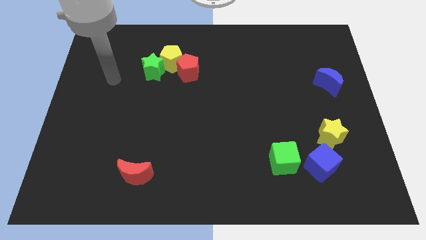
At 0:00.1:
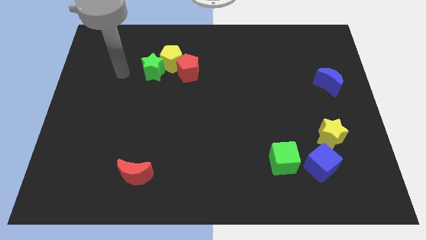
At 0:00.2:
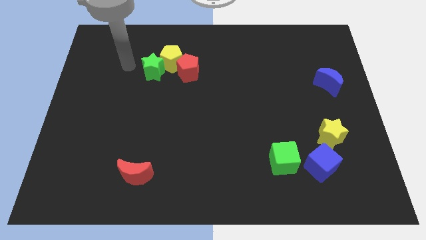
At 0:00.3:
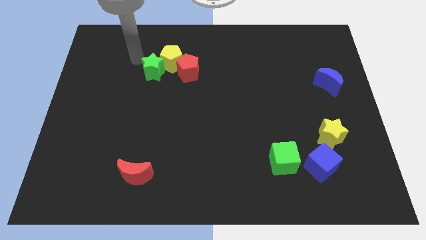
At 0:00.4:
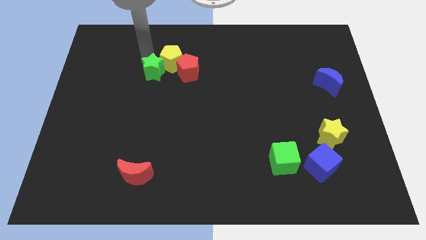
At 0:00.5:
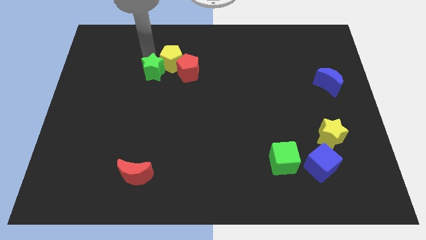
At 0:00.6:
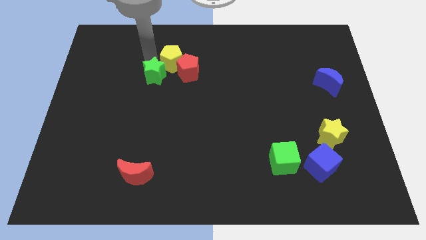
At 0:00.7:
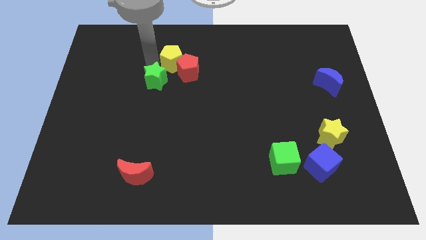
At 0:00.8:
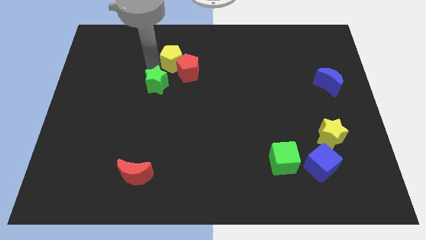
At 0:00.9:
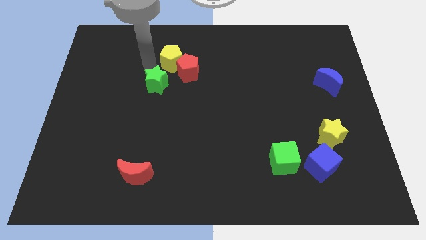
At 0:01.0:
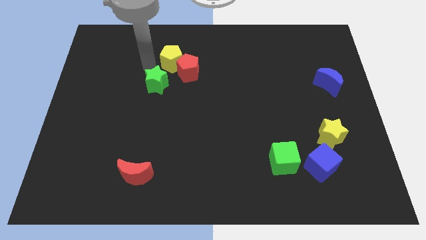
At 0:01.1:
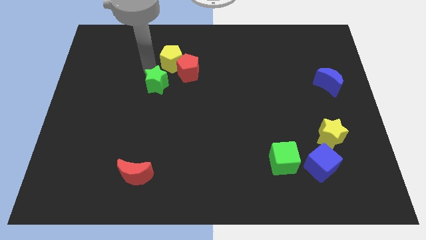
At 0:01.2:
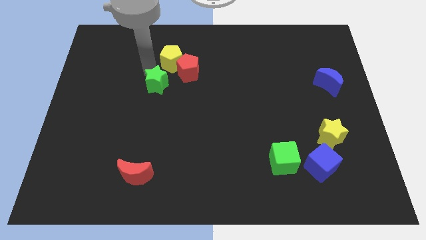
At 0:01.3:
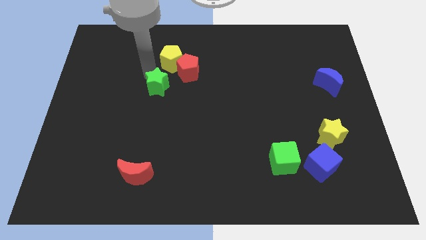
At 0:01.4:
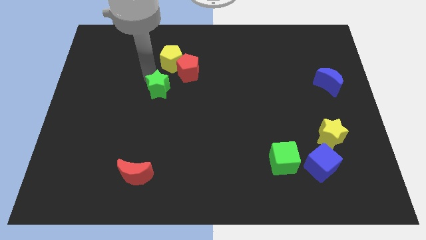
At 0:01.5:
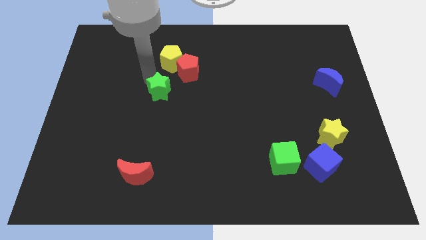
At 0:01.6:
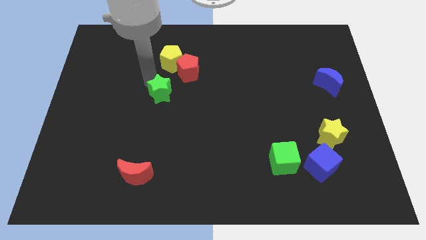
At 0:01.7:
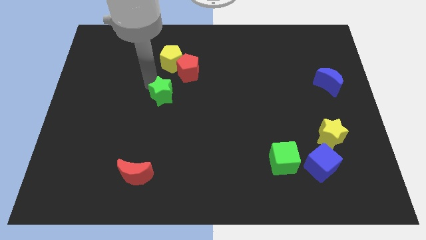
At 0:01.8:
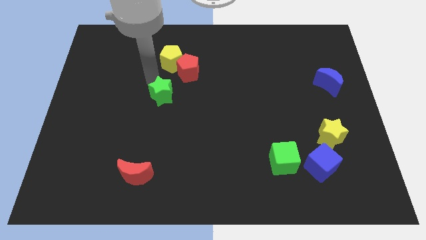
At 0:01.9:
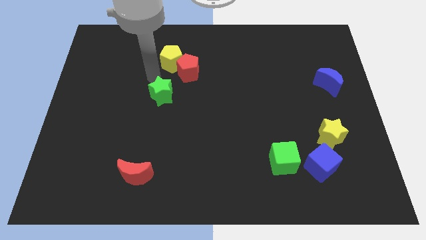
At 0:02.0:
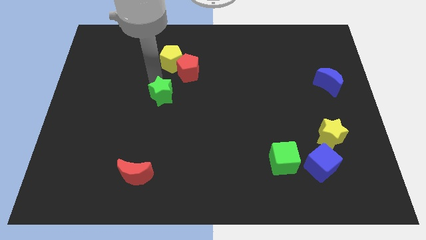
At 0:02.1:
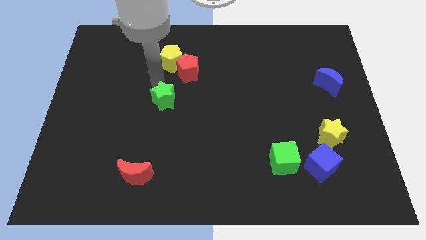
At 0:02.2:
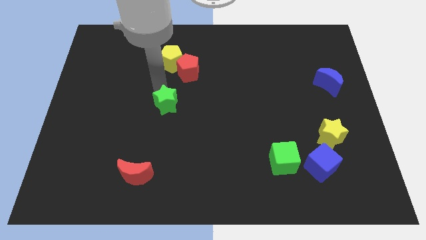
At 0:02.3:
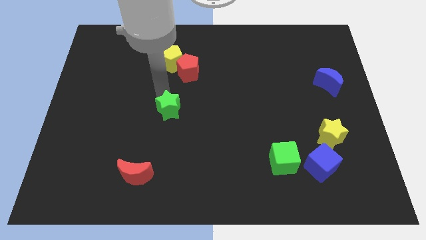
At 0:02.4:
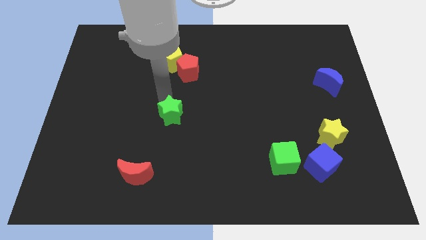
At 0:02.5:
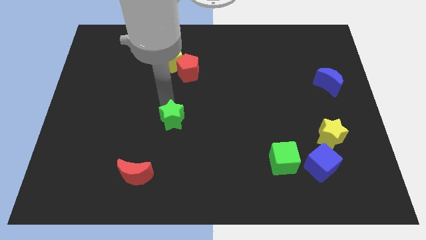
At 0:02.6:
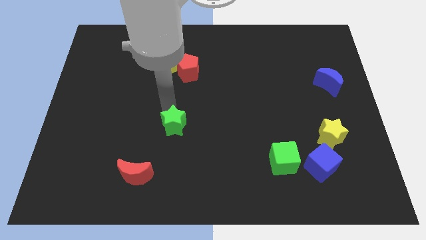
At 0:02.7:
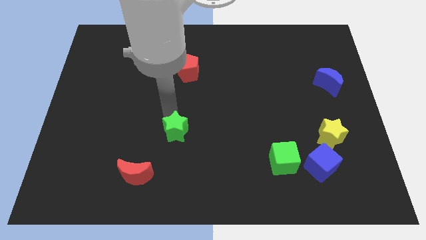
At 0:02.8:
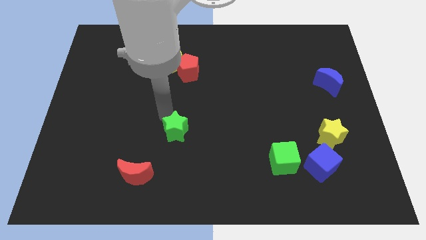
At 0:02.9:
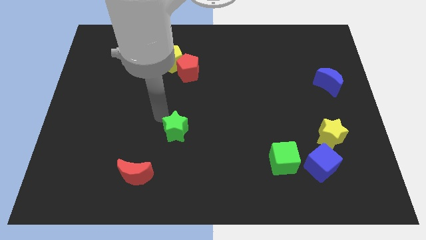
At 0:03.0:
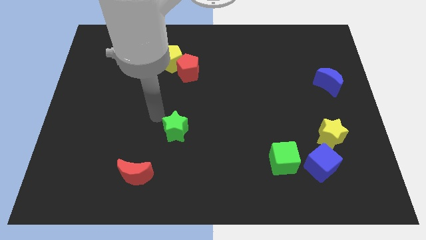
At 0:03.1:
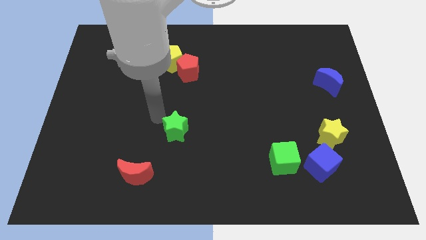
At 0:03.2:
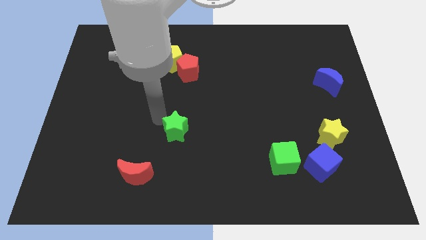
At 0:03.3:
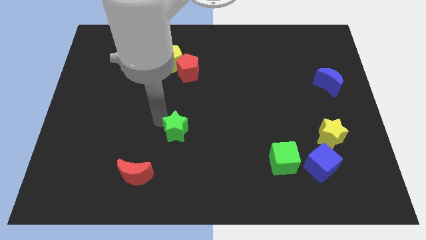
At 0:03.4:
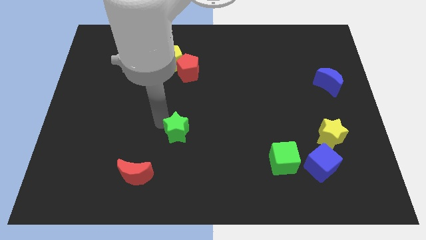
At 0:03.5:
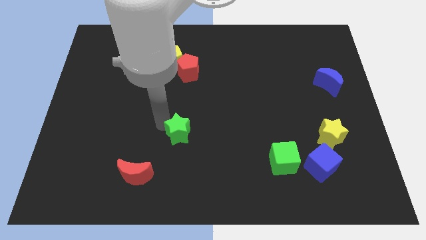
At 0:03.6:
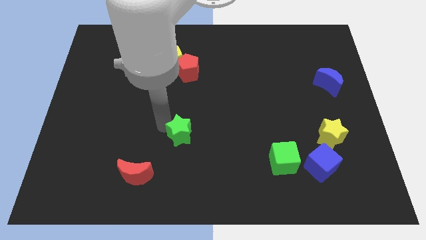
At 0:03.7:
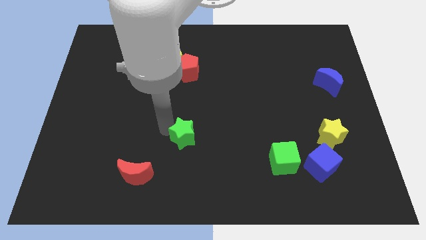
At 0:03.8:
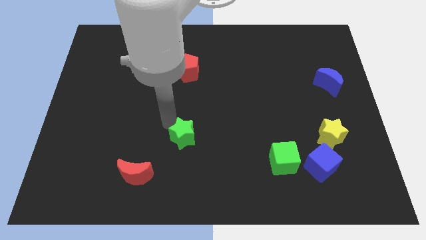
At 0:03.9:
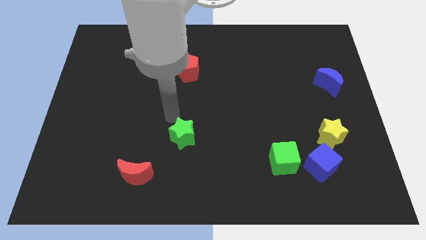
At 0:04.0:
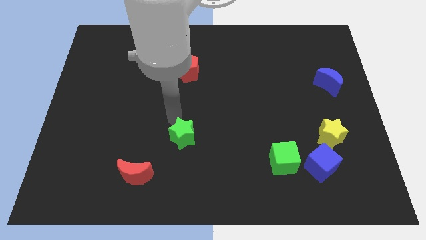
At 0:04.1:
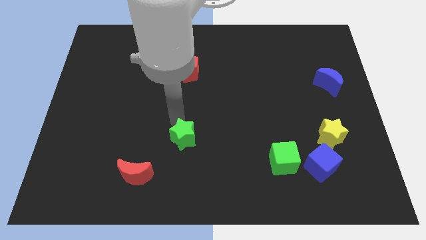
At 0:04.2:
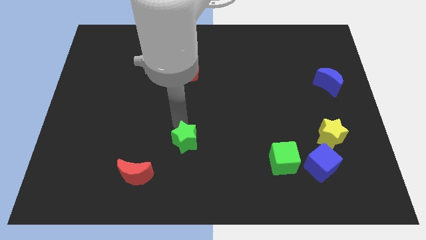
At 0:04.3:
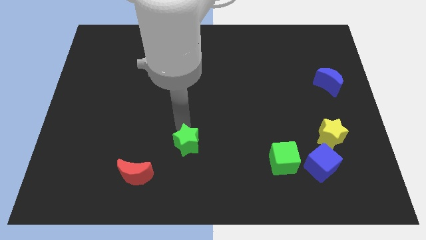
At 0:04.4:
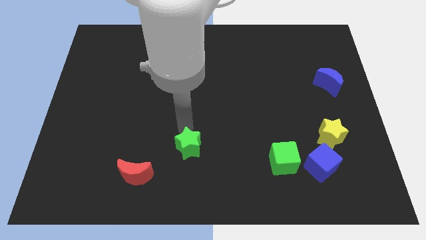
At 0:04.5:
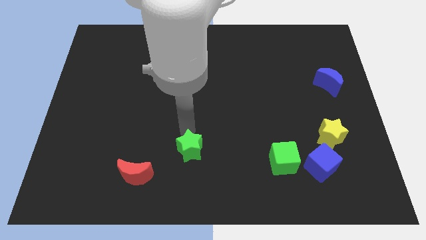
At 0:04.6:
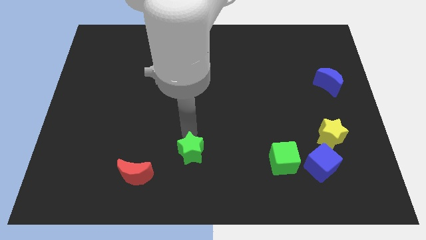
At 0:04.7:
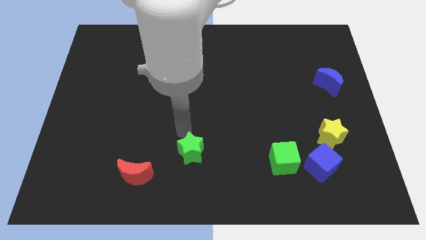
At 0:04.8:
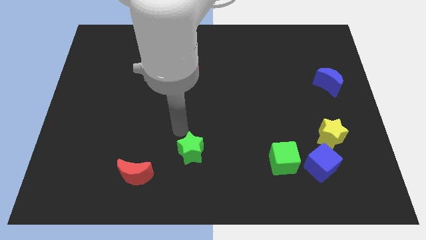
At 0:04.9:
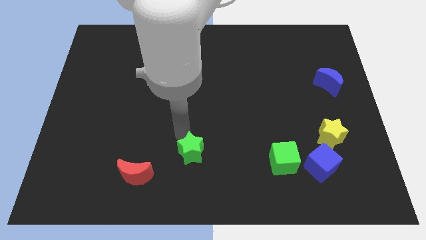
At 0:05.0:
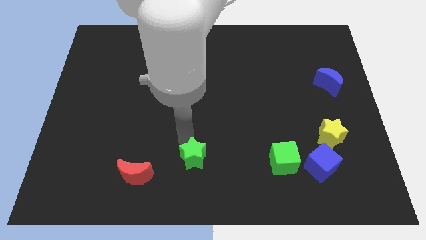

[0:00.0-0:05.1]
push the green star to the bottom side

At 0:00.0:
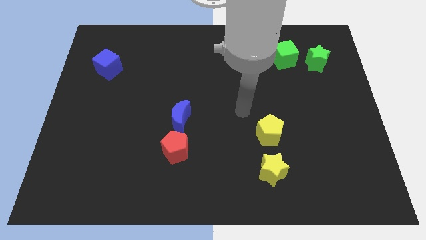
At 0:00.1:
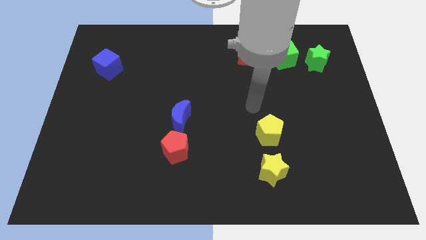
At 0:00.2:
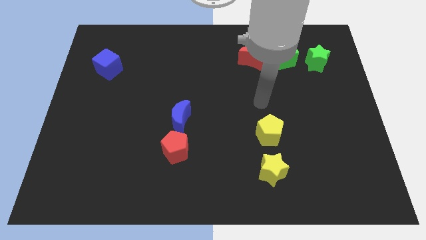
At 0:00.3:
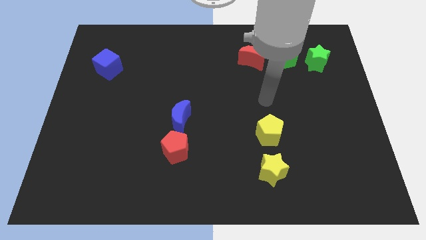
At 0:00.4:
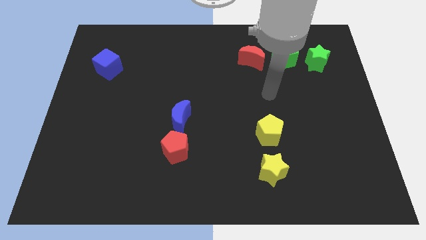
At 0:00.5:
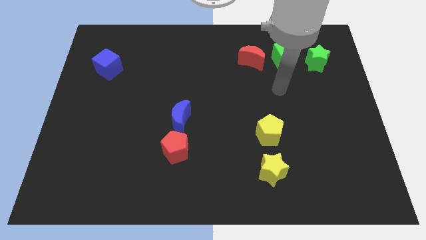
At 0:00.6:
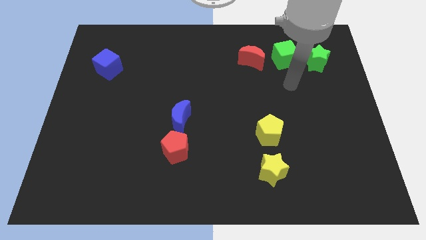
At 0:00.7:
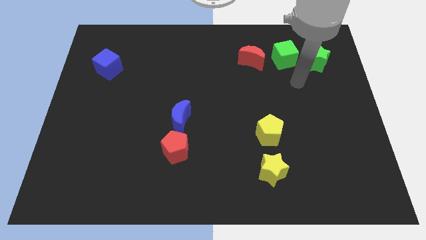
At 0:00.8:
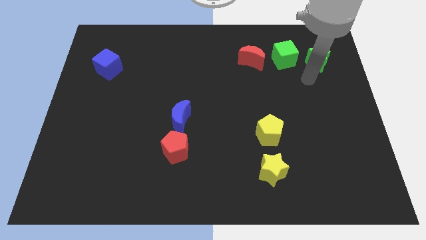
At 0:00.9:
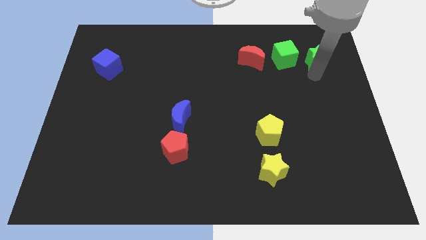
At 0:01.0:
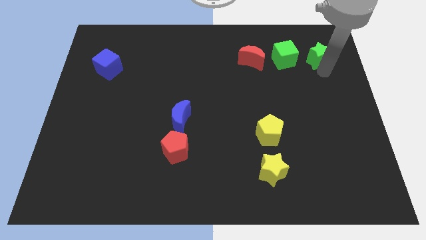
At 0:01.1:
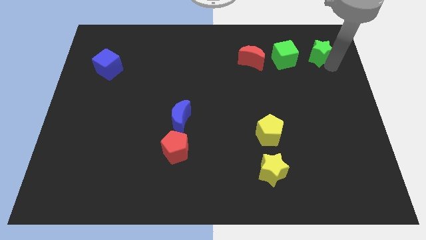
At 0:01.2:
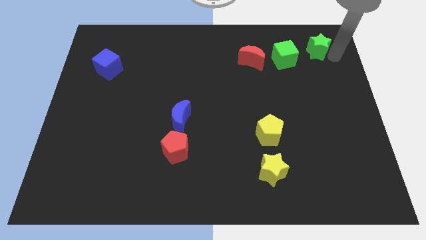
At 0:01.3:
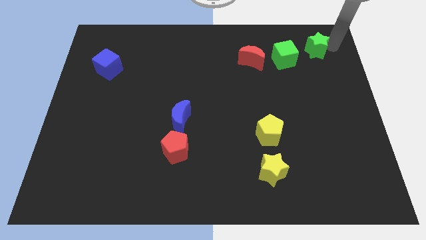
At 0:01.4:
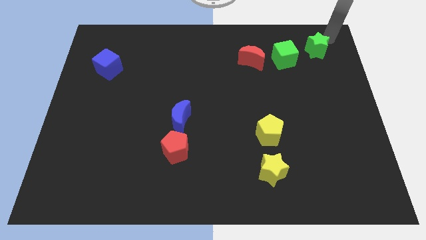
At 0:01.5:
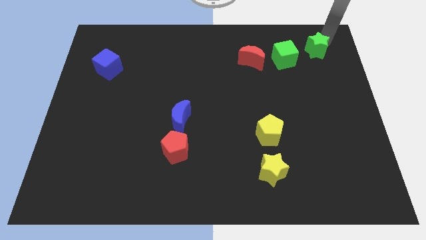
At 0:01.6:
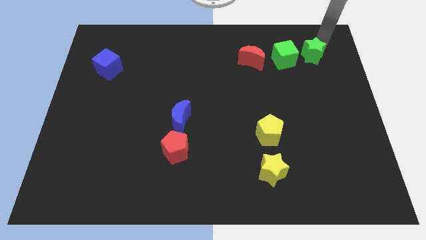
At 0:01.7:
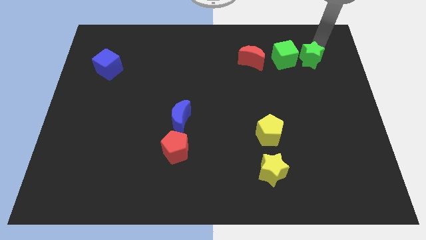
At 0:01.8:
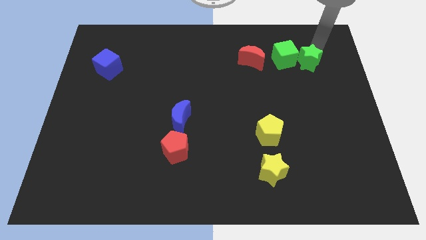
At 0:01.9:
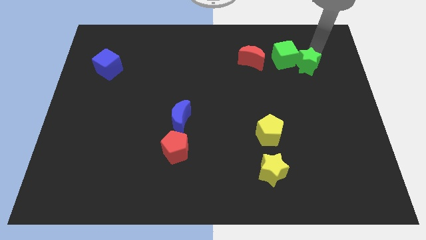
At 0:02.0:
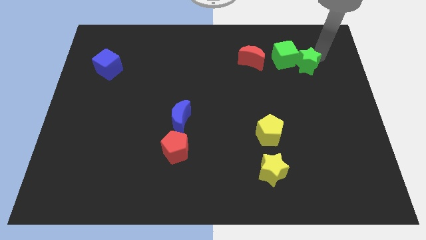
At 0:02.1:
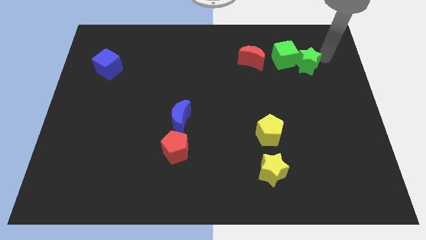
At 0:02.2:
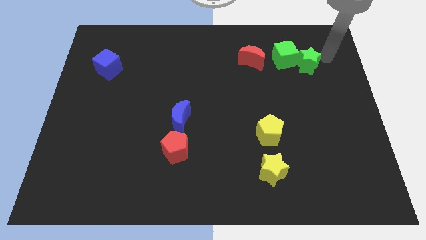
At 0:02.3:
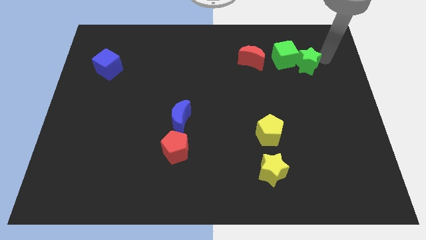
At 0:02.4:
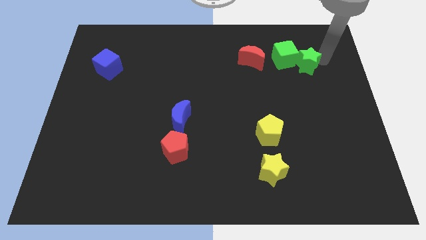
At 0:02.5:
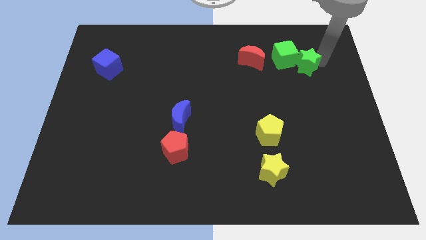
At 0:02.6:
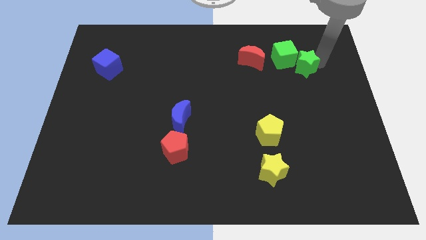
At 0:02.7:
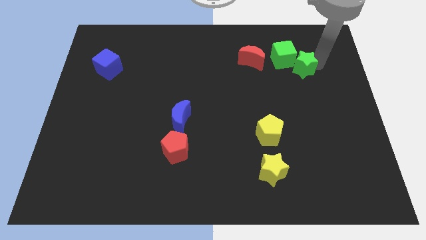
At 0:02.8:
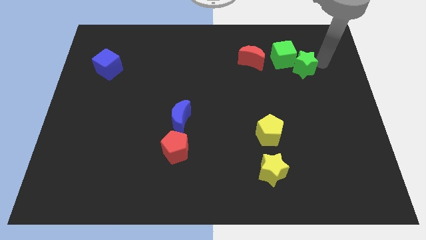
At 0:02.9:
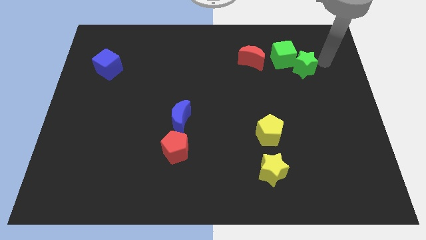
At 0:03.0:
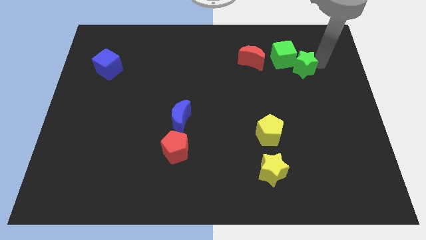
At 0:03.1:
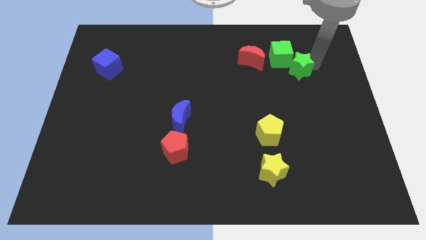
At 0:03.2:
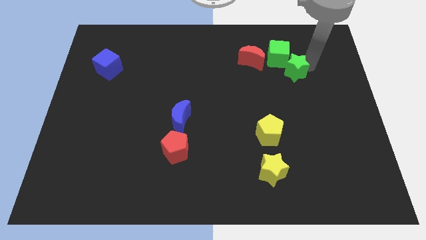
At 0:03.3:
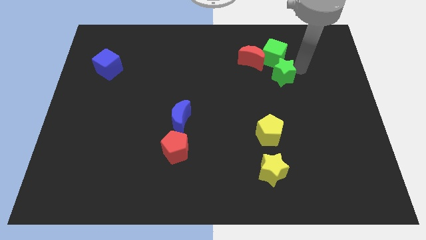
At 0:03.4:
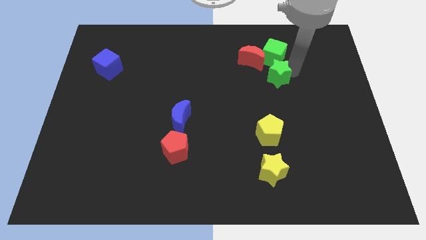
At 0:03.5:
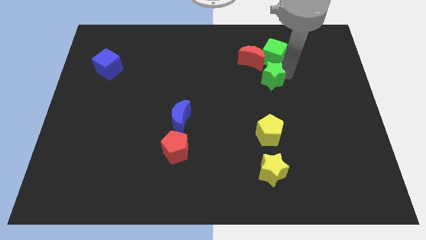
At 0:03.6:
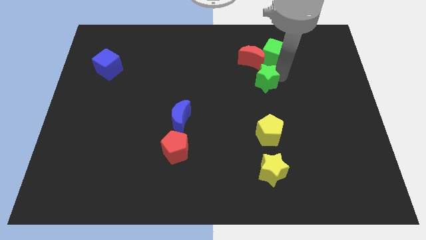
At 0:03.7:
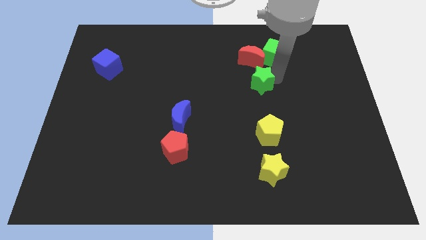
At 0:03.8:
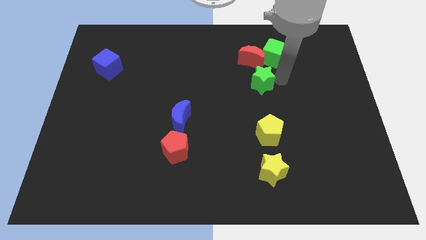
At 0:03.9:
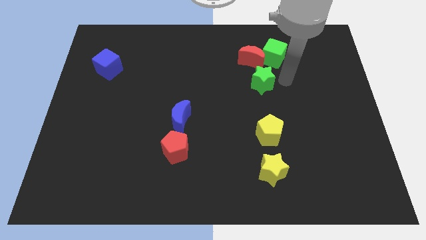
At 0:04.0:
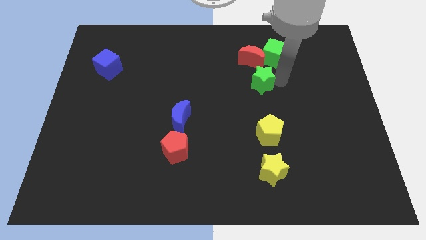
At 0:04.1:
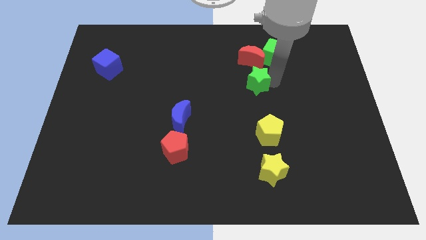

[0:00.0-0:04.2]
push the green star to the center of the board
